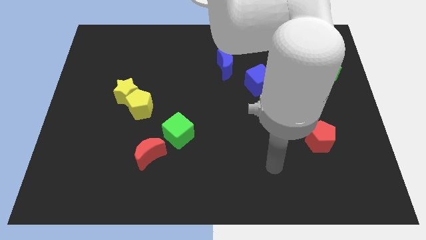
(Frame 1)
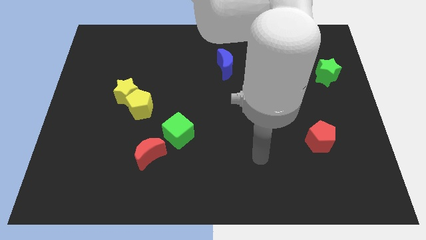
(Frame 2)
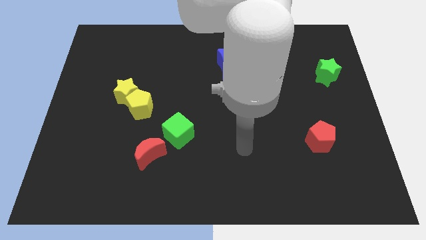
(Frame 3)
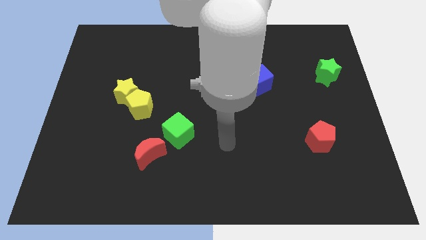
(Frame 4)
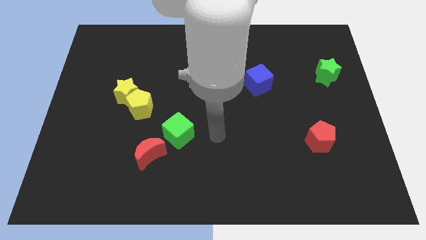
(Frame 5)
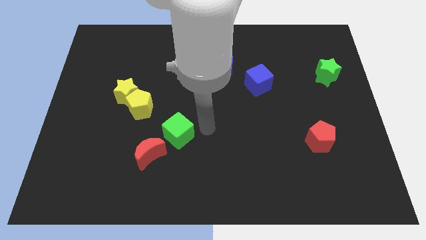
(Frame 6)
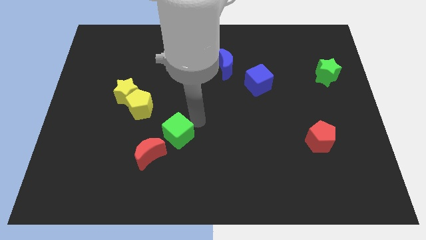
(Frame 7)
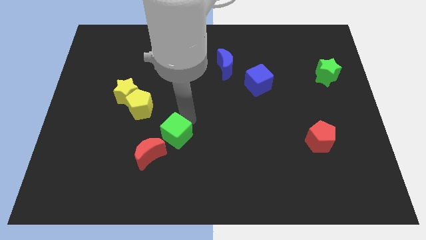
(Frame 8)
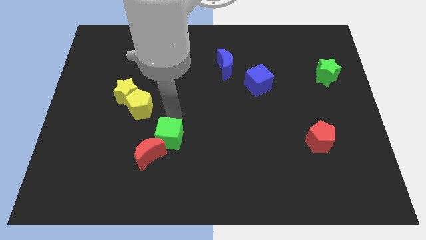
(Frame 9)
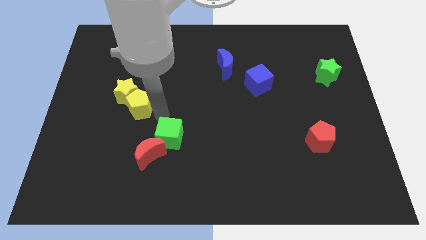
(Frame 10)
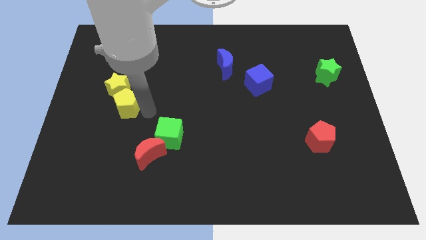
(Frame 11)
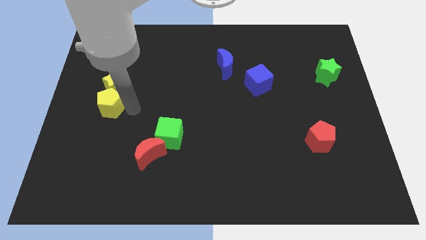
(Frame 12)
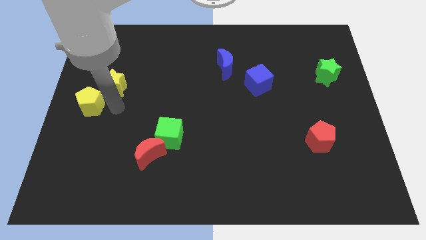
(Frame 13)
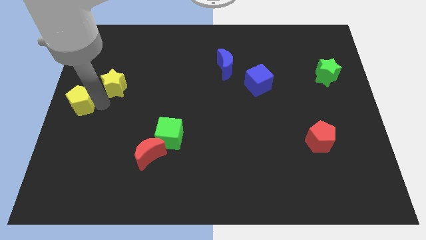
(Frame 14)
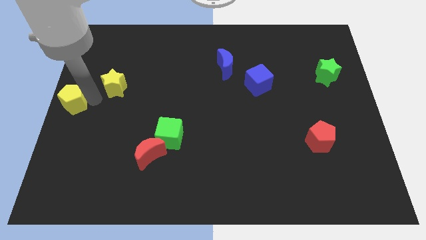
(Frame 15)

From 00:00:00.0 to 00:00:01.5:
pull the yellow star apart from the yellow pentagon

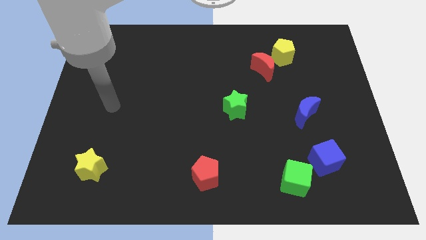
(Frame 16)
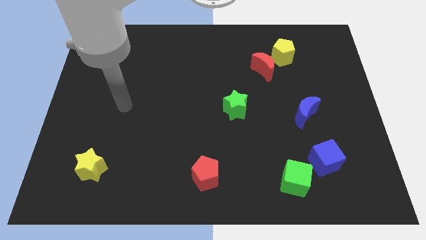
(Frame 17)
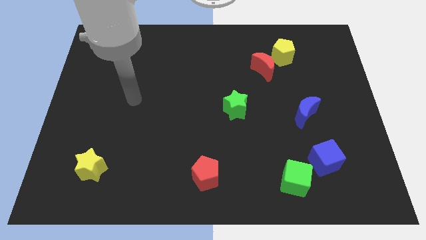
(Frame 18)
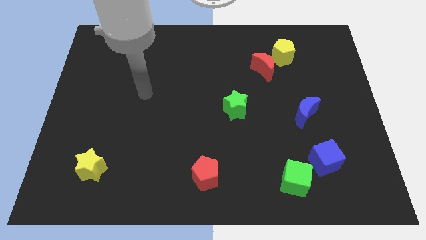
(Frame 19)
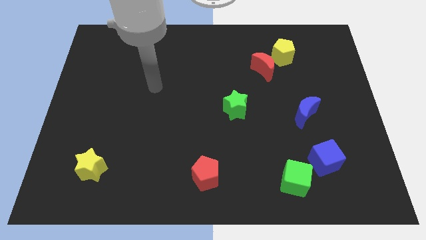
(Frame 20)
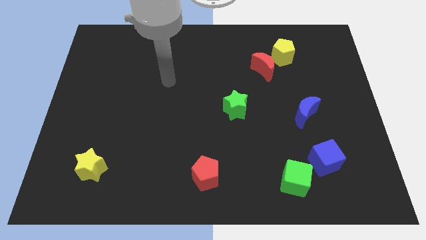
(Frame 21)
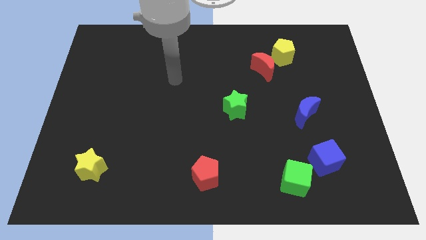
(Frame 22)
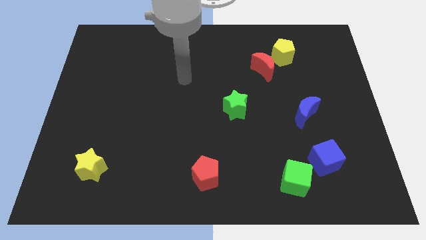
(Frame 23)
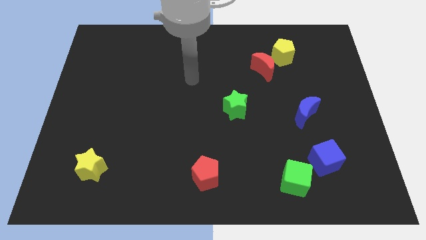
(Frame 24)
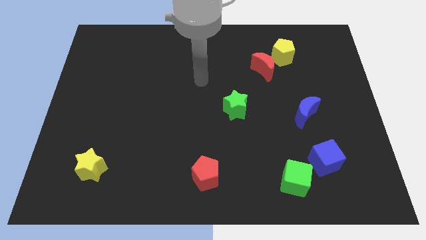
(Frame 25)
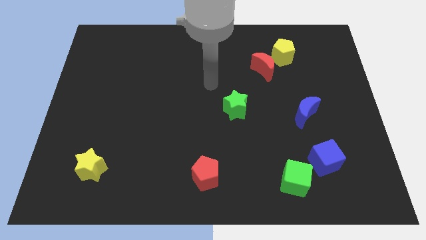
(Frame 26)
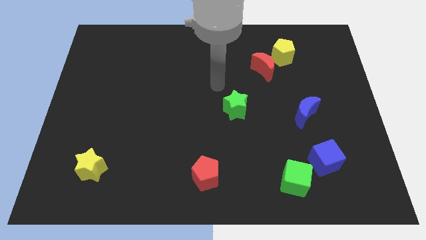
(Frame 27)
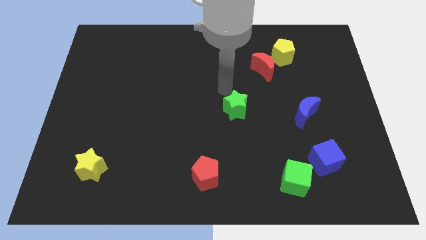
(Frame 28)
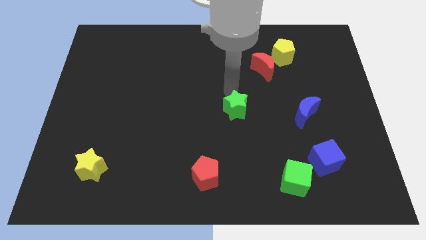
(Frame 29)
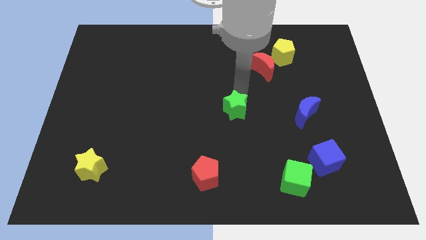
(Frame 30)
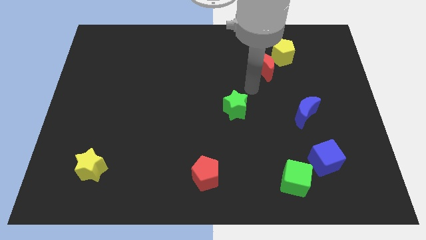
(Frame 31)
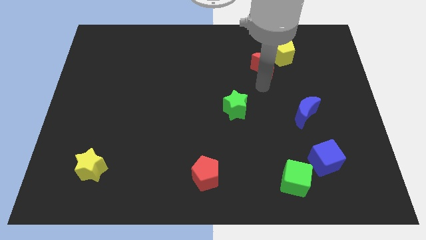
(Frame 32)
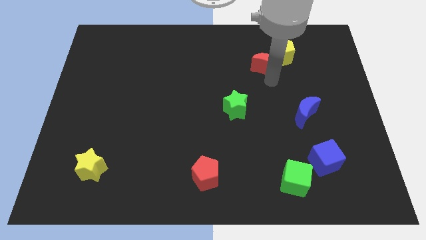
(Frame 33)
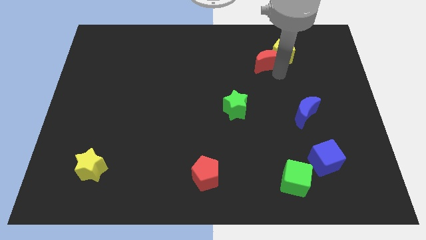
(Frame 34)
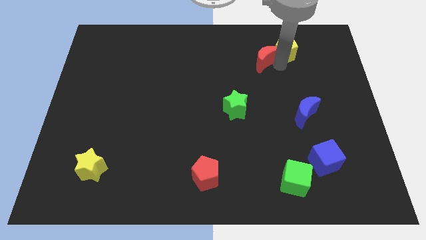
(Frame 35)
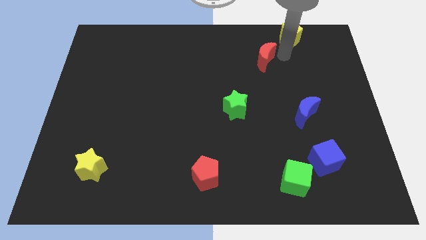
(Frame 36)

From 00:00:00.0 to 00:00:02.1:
separate the red moon from the yellow pentagon

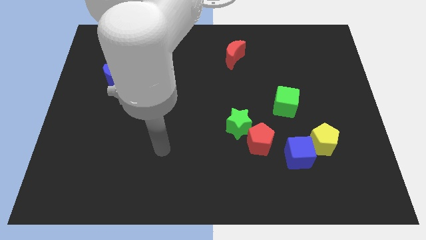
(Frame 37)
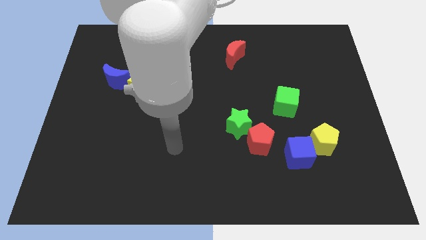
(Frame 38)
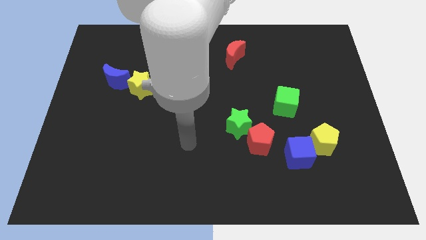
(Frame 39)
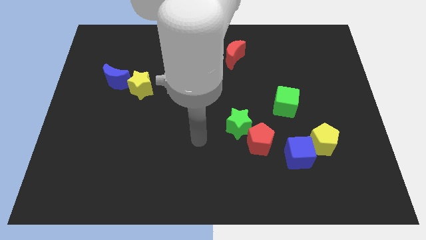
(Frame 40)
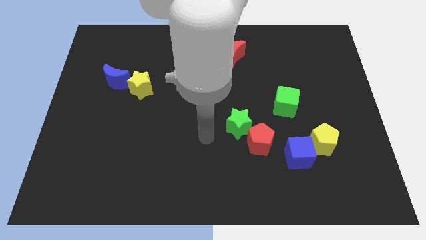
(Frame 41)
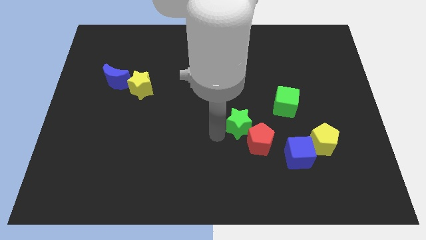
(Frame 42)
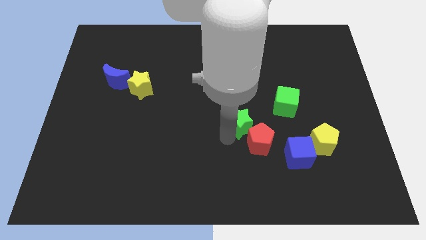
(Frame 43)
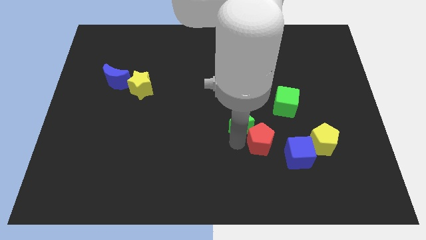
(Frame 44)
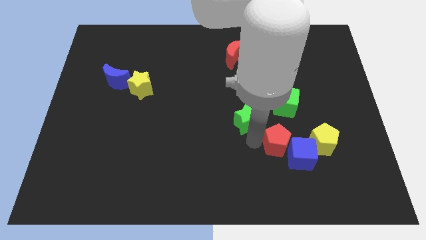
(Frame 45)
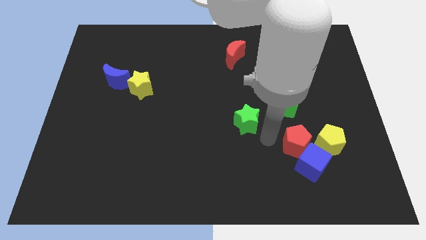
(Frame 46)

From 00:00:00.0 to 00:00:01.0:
separate the green star from the red pentagon

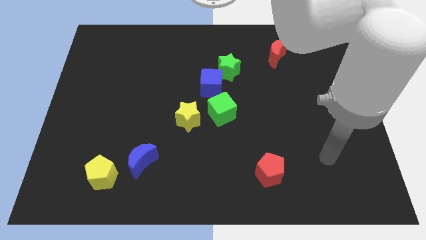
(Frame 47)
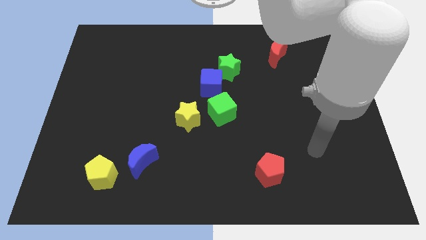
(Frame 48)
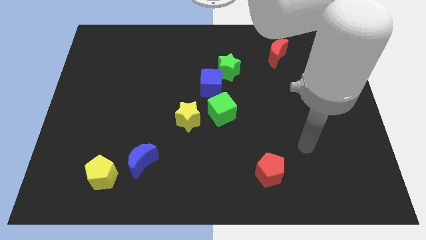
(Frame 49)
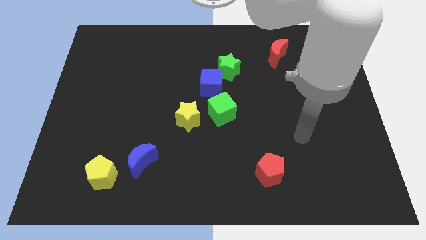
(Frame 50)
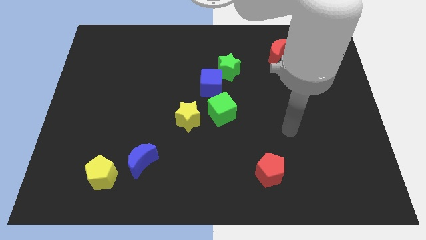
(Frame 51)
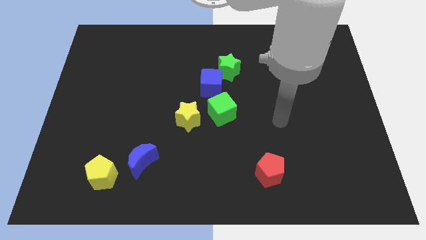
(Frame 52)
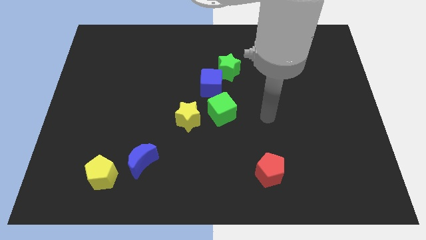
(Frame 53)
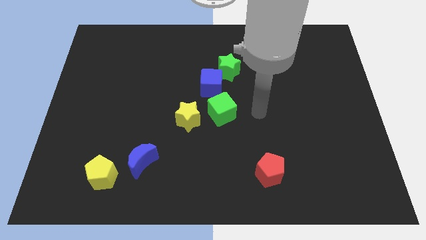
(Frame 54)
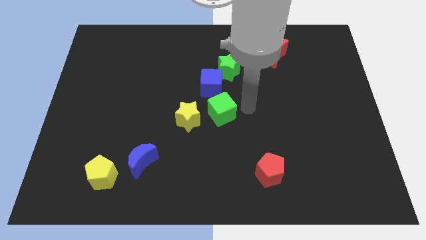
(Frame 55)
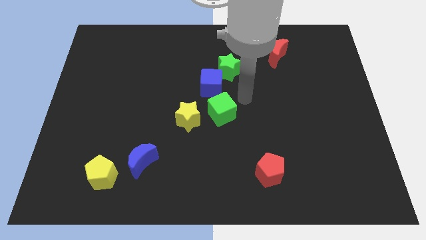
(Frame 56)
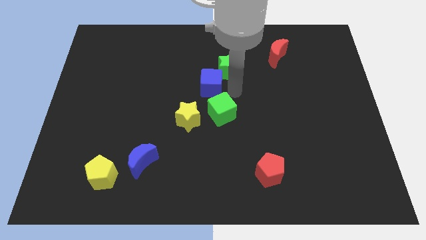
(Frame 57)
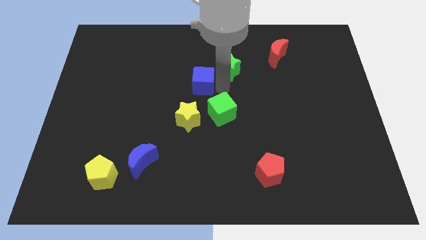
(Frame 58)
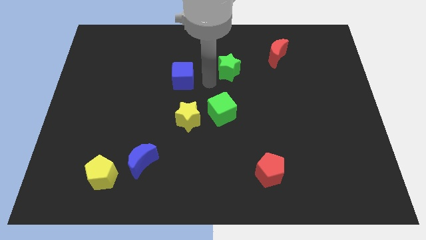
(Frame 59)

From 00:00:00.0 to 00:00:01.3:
separate the green star from the blue cube

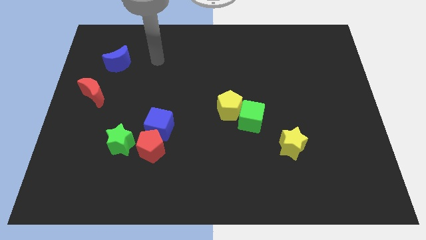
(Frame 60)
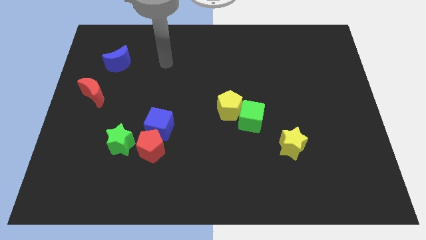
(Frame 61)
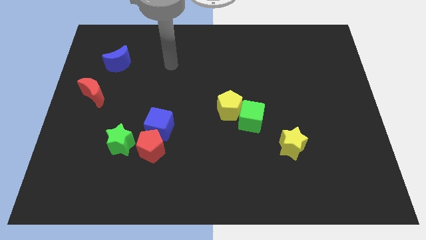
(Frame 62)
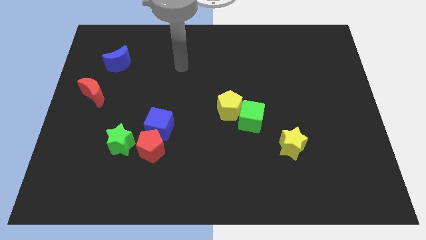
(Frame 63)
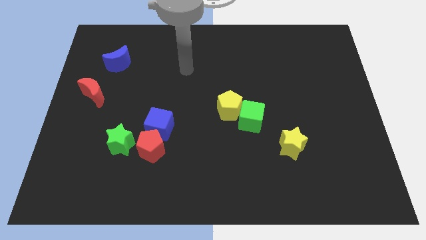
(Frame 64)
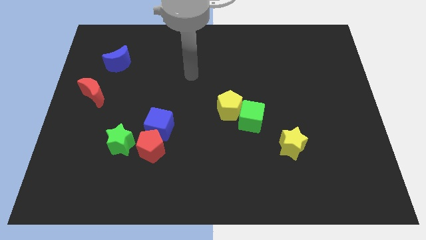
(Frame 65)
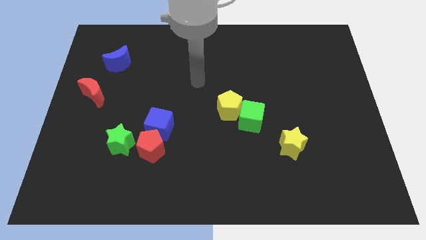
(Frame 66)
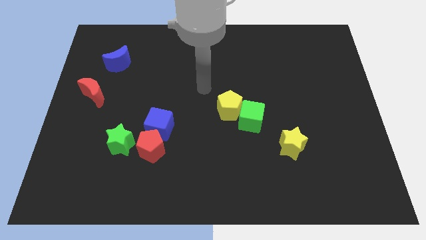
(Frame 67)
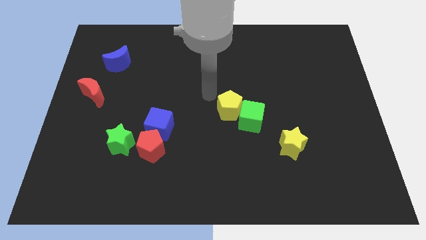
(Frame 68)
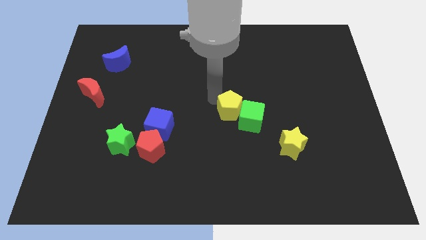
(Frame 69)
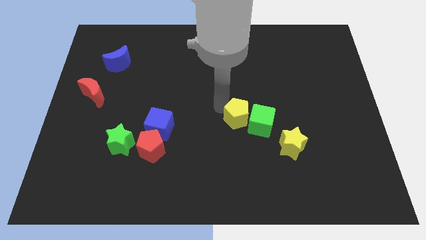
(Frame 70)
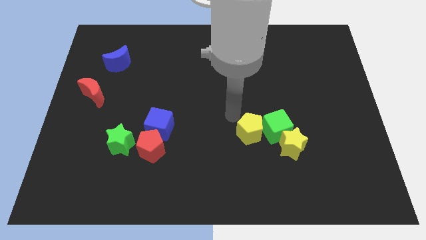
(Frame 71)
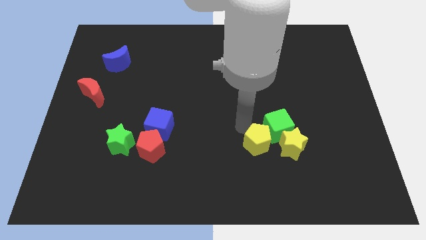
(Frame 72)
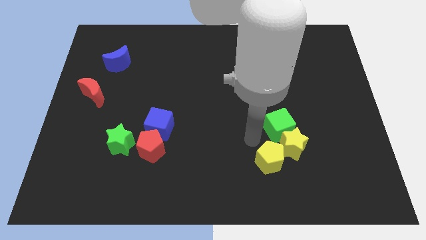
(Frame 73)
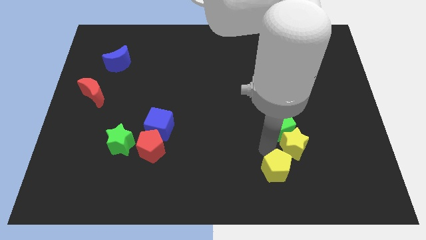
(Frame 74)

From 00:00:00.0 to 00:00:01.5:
move the green cube away from the yellow pentagon

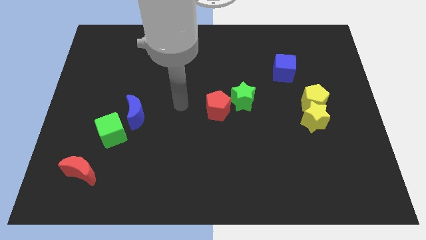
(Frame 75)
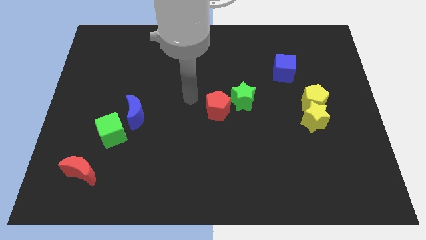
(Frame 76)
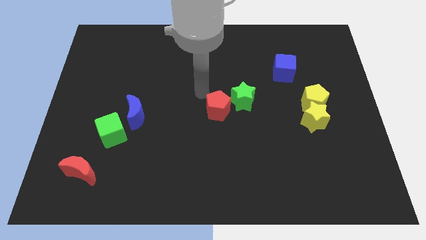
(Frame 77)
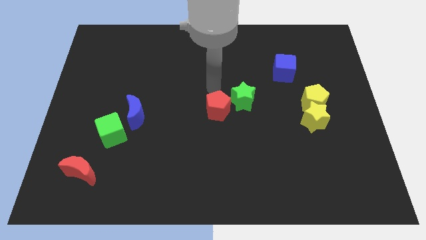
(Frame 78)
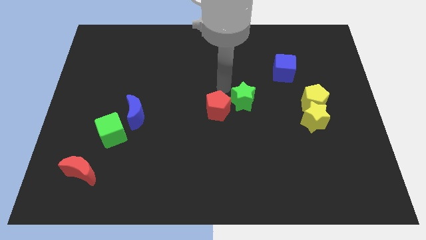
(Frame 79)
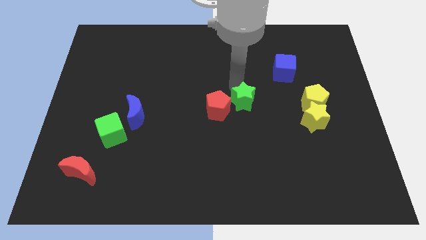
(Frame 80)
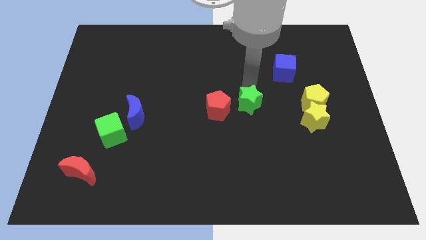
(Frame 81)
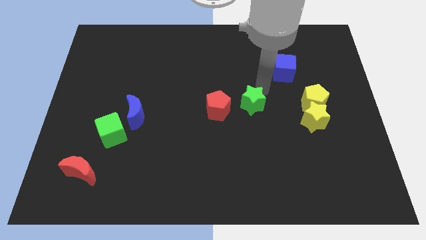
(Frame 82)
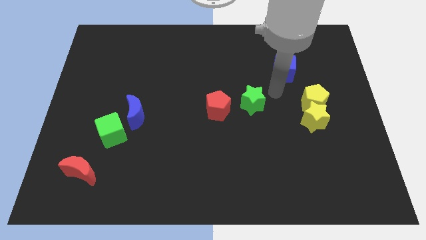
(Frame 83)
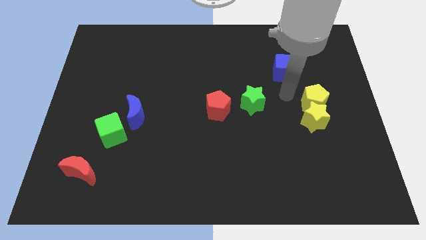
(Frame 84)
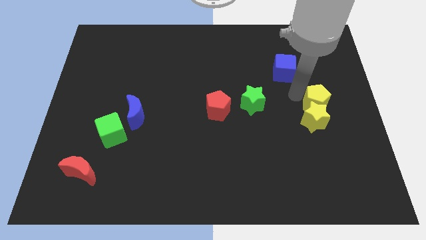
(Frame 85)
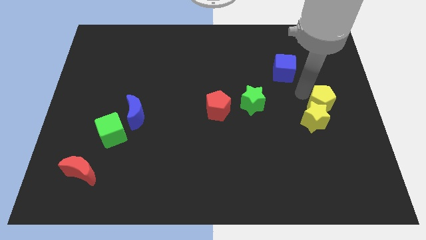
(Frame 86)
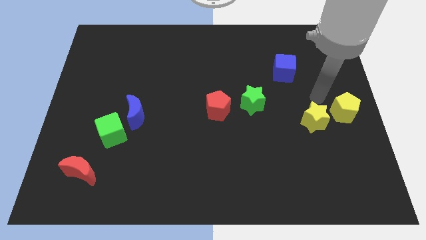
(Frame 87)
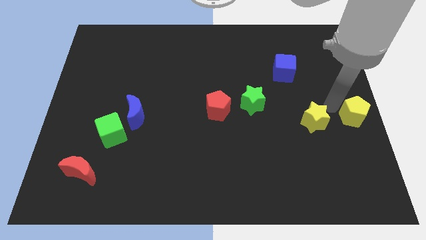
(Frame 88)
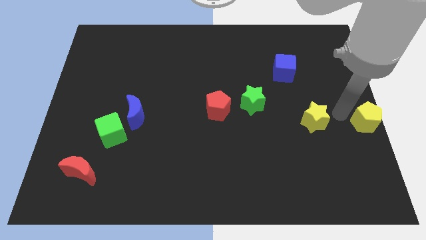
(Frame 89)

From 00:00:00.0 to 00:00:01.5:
separate the yellow star from the yellow pentagon

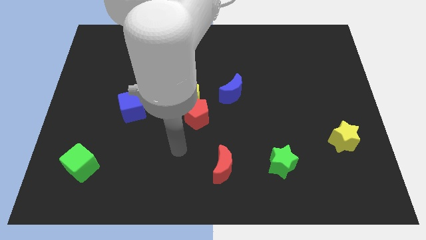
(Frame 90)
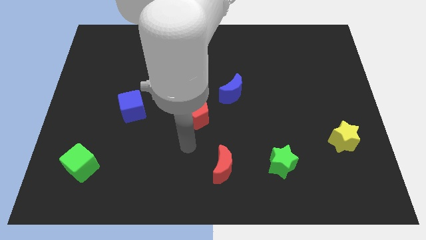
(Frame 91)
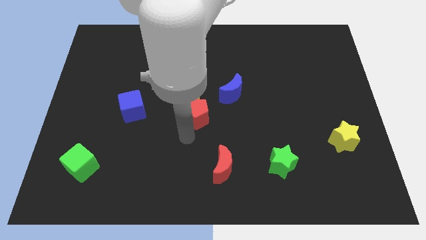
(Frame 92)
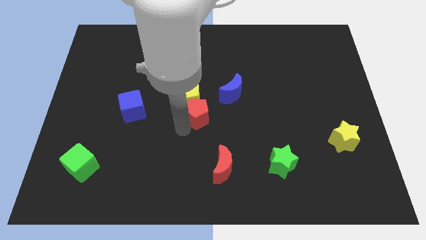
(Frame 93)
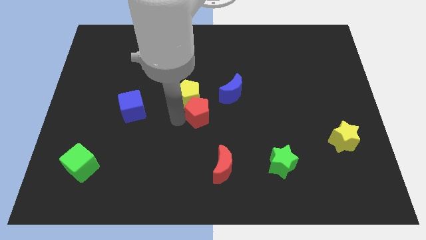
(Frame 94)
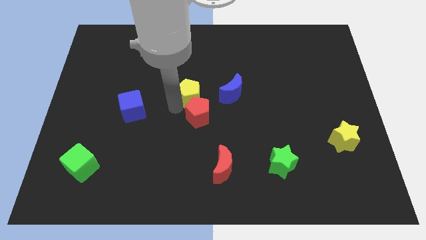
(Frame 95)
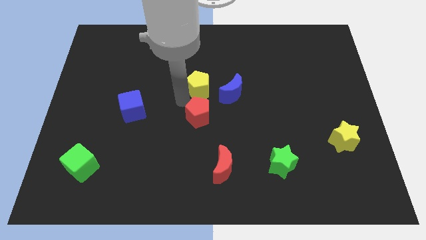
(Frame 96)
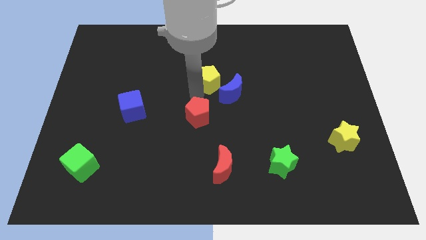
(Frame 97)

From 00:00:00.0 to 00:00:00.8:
move the red pentagon away from the yellow pentagon
